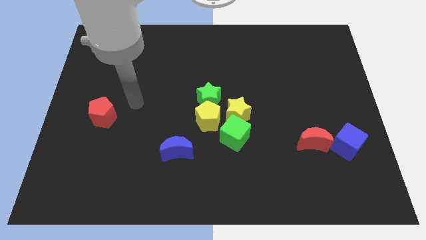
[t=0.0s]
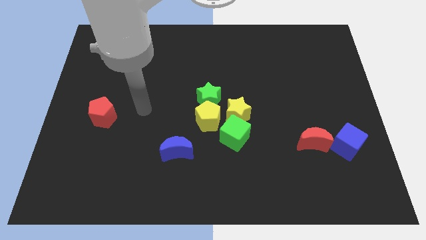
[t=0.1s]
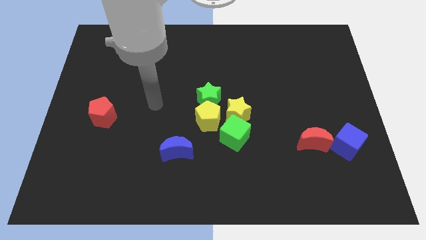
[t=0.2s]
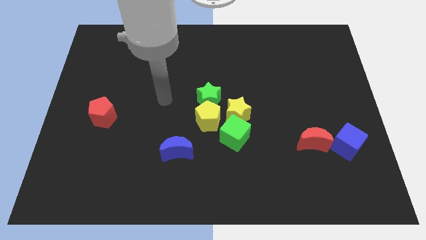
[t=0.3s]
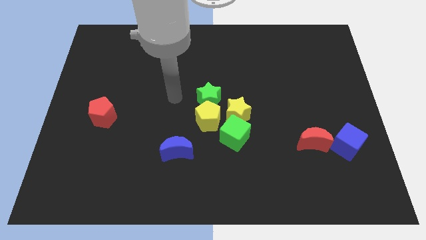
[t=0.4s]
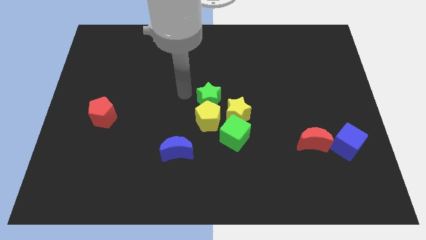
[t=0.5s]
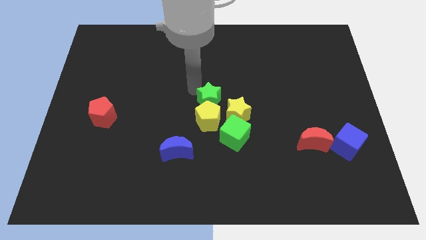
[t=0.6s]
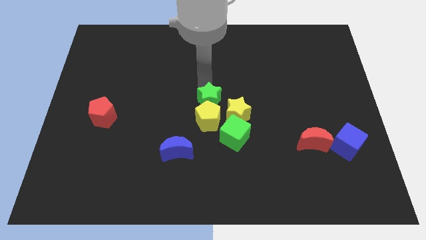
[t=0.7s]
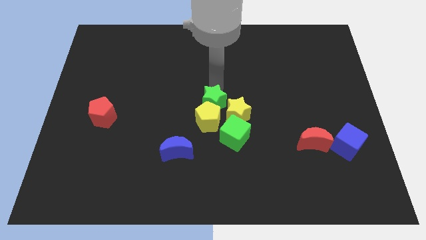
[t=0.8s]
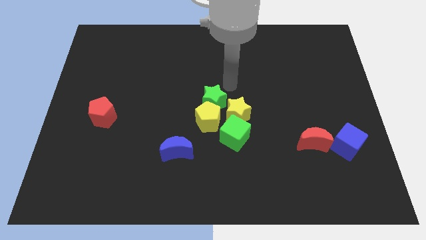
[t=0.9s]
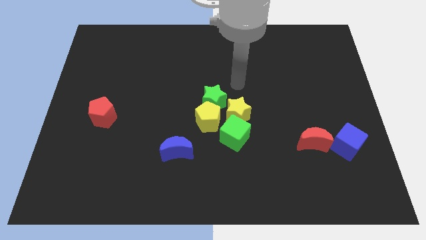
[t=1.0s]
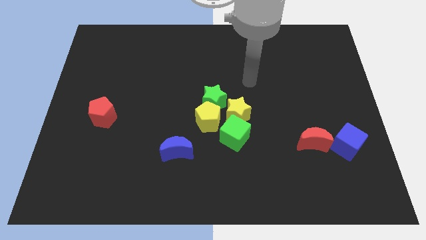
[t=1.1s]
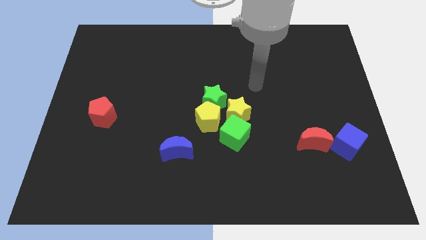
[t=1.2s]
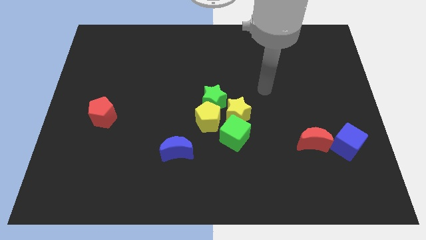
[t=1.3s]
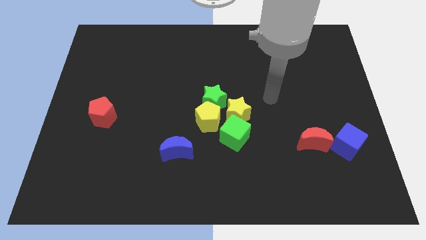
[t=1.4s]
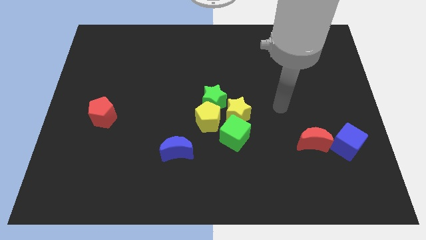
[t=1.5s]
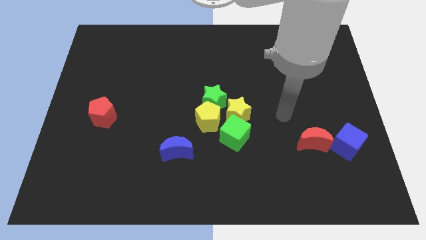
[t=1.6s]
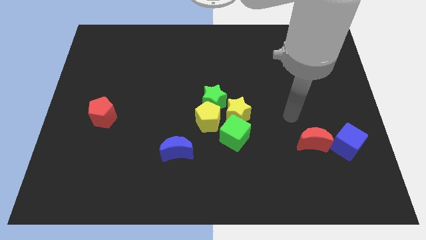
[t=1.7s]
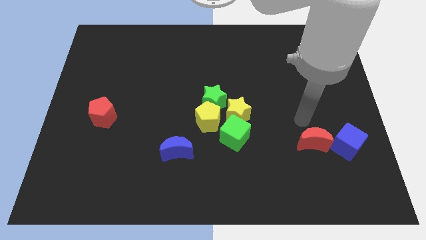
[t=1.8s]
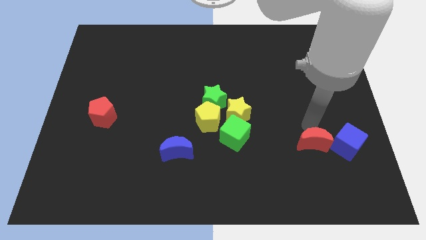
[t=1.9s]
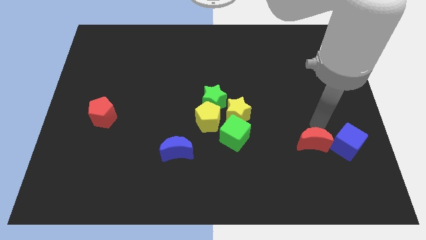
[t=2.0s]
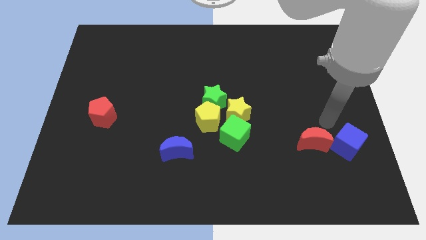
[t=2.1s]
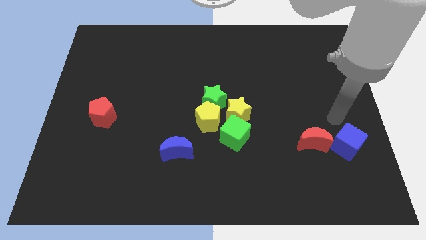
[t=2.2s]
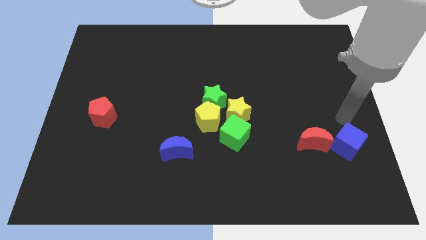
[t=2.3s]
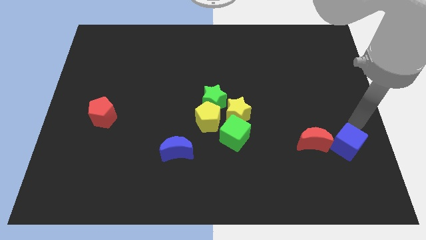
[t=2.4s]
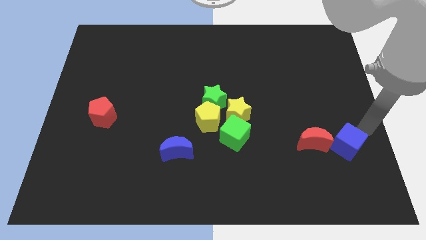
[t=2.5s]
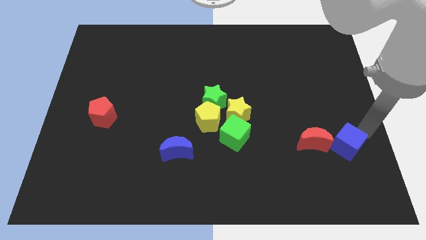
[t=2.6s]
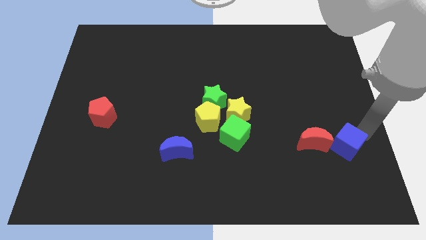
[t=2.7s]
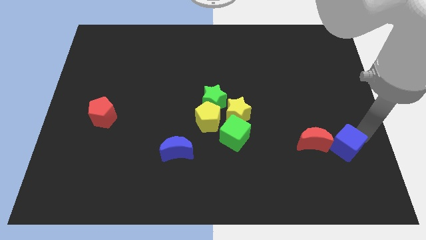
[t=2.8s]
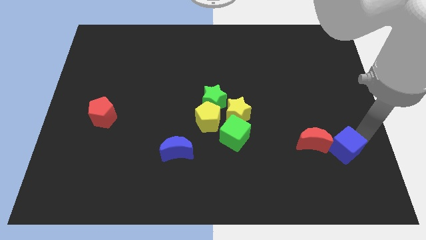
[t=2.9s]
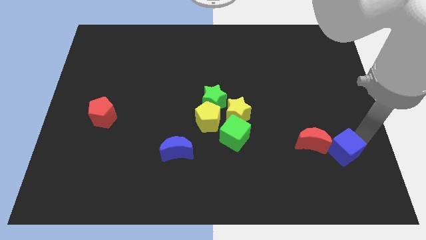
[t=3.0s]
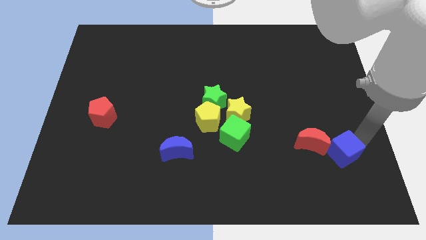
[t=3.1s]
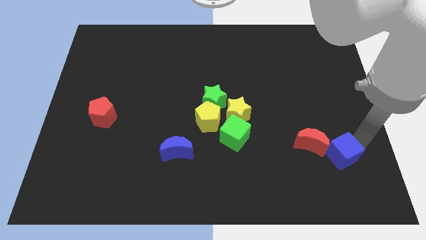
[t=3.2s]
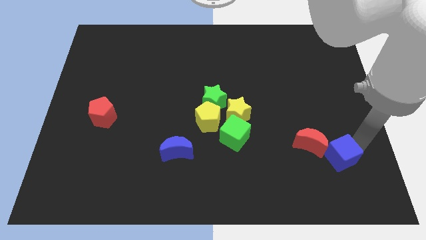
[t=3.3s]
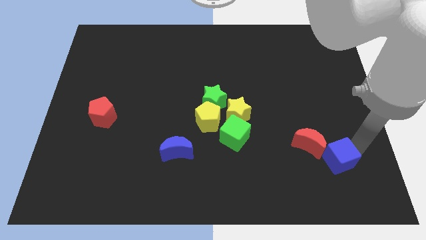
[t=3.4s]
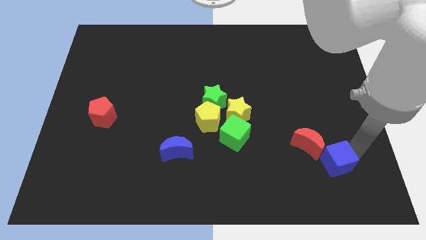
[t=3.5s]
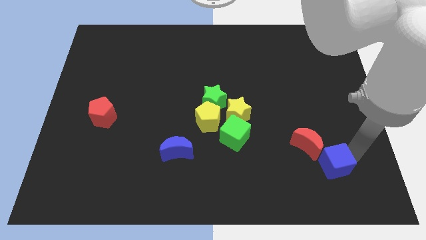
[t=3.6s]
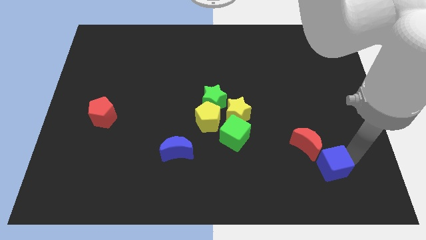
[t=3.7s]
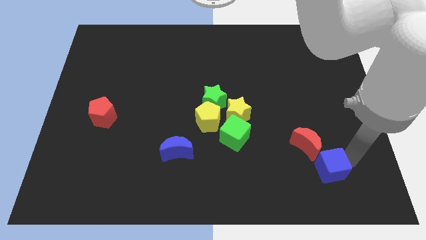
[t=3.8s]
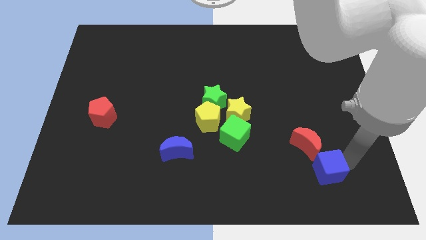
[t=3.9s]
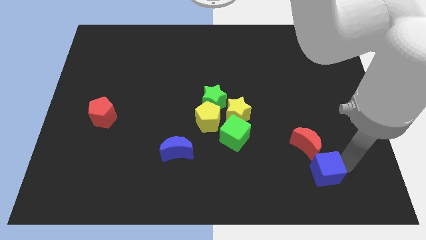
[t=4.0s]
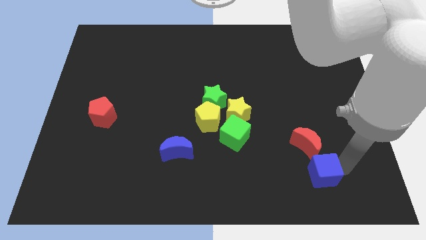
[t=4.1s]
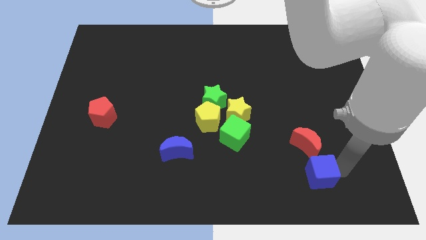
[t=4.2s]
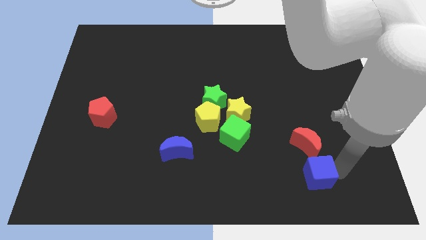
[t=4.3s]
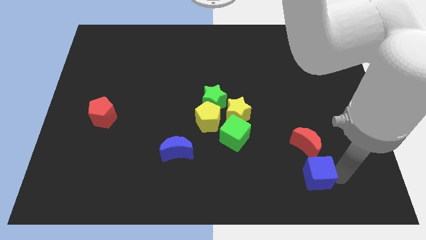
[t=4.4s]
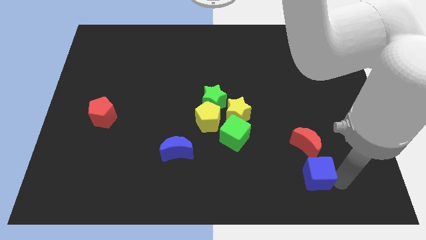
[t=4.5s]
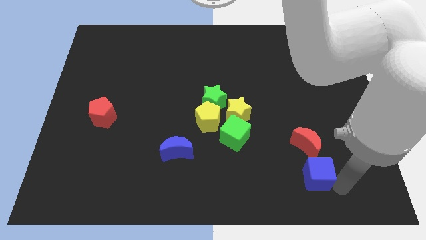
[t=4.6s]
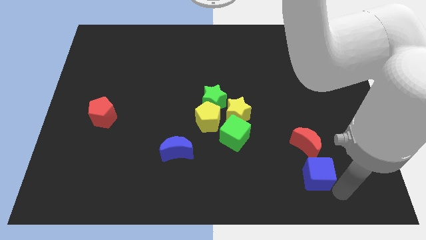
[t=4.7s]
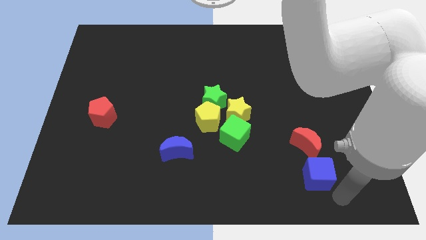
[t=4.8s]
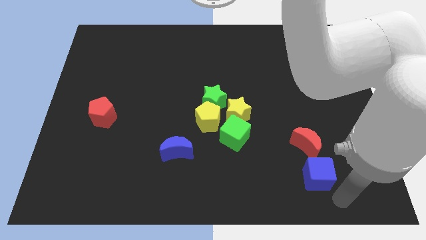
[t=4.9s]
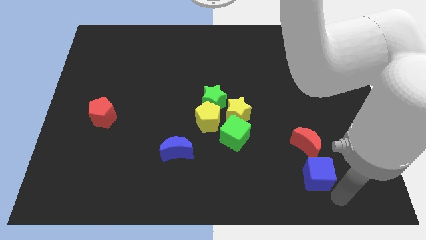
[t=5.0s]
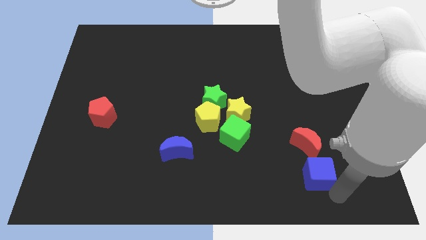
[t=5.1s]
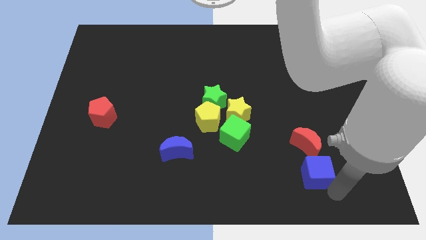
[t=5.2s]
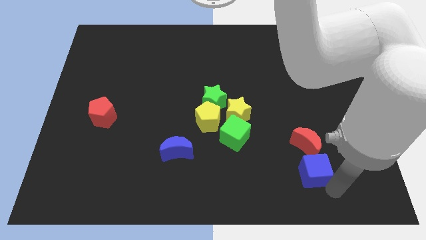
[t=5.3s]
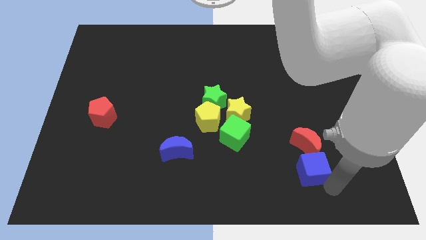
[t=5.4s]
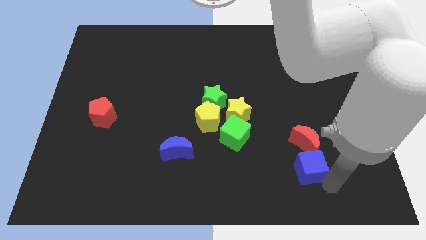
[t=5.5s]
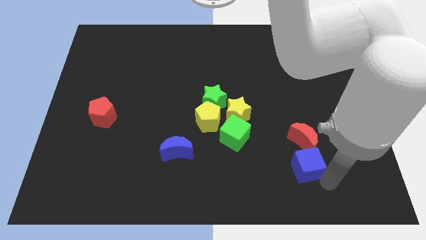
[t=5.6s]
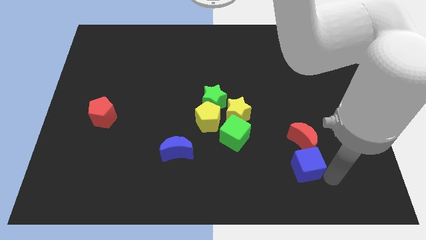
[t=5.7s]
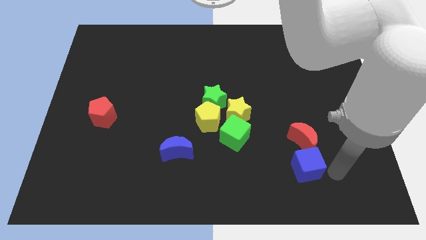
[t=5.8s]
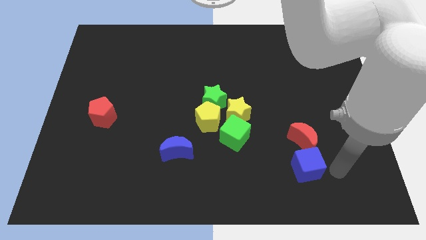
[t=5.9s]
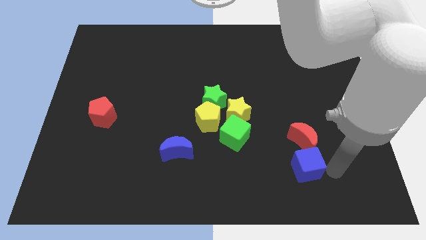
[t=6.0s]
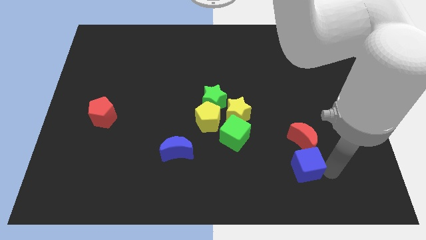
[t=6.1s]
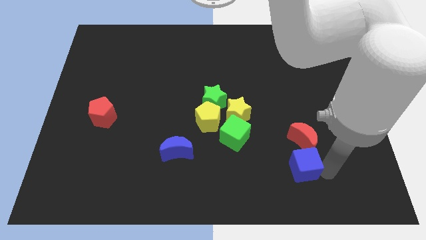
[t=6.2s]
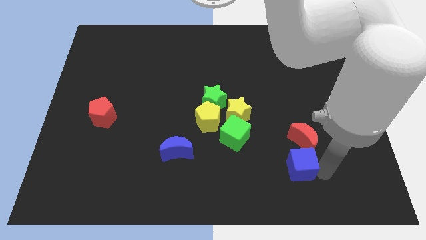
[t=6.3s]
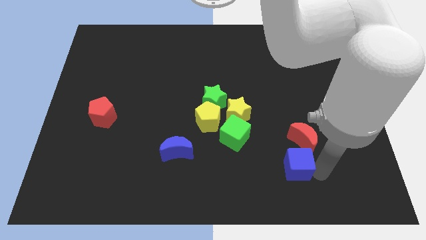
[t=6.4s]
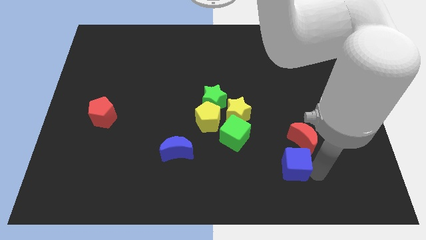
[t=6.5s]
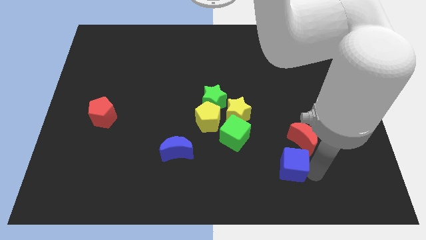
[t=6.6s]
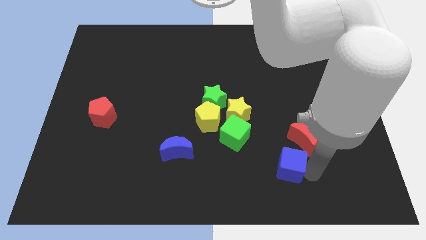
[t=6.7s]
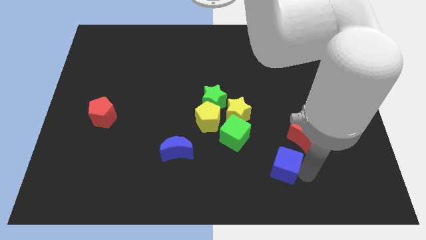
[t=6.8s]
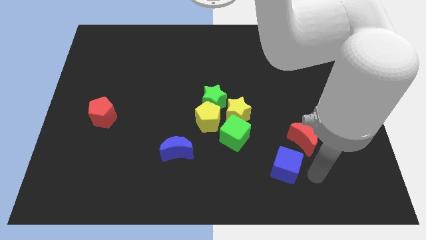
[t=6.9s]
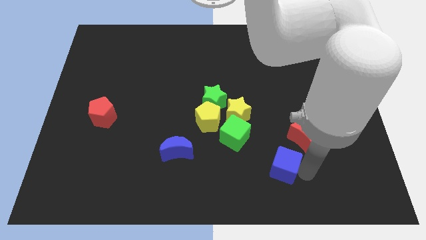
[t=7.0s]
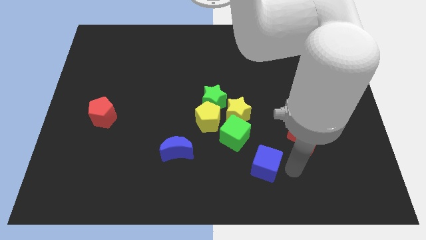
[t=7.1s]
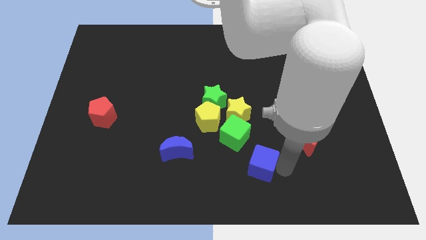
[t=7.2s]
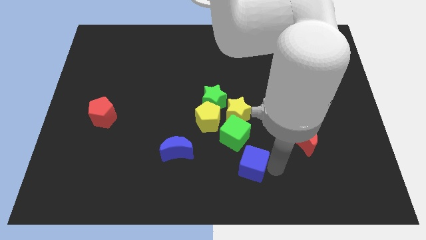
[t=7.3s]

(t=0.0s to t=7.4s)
slide the blue cube left

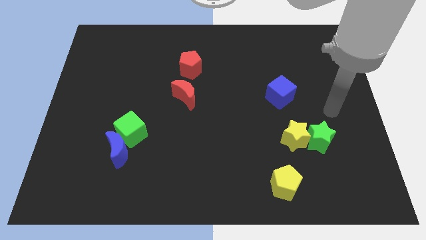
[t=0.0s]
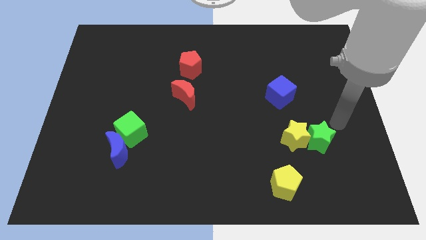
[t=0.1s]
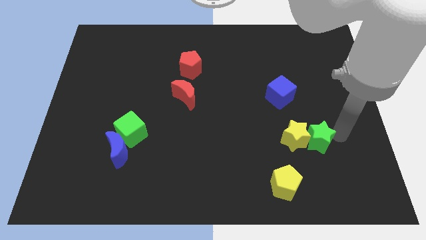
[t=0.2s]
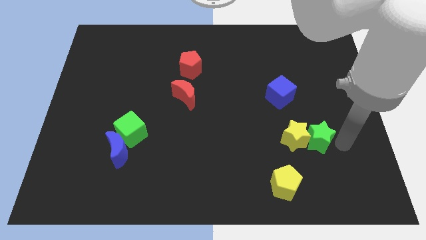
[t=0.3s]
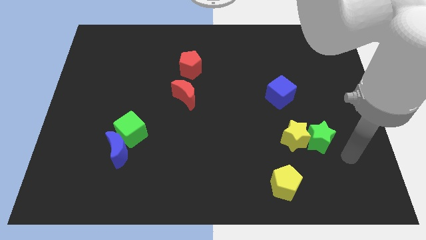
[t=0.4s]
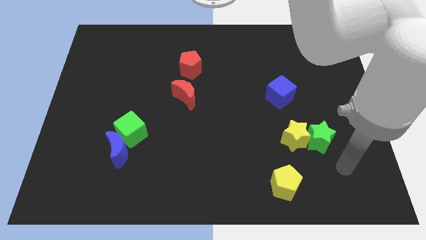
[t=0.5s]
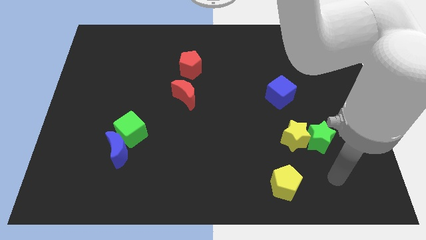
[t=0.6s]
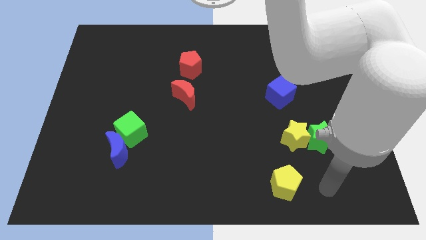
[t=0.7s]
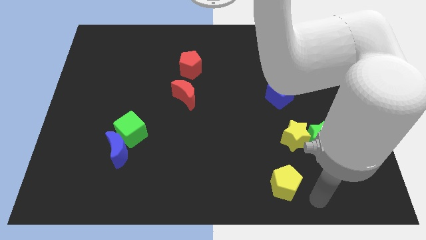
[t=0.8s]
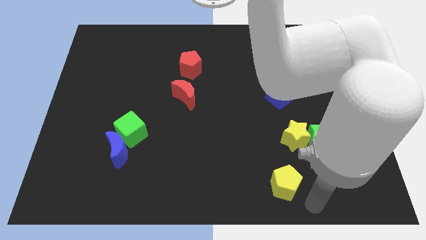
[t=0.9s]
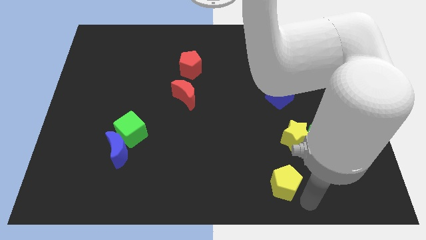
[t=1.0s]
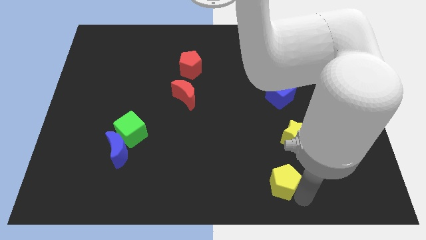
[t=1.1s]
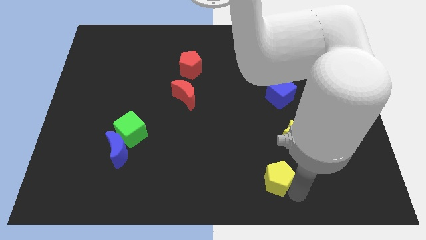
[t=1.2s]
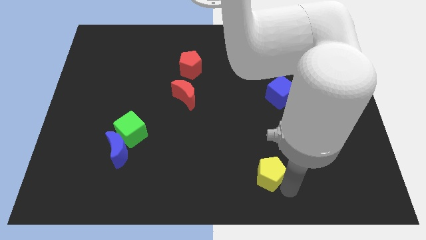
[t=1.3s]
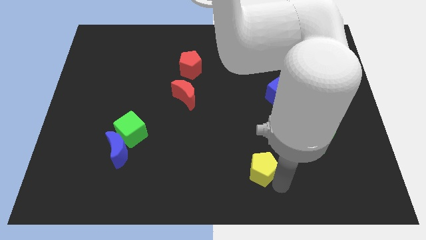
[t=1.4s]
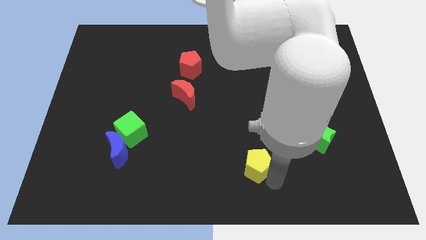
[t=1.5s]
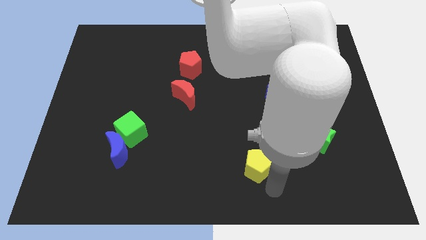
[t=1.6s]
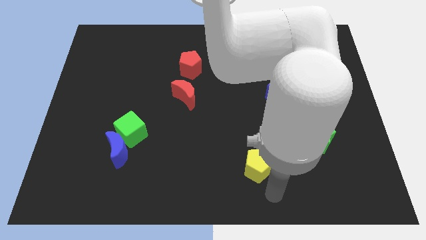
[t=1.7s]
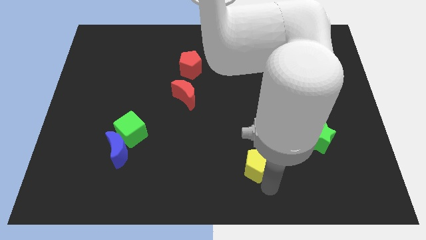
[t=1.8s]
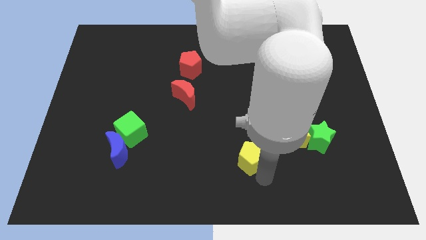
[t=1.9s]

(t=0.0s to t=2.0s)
push the yellow pentagon up and then left a little bit
